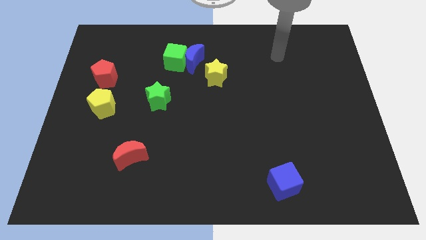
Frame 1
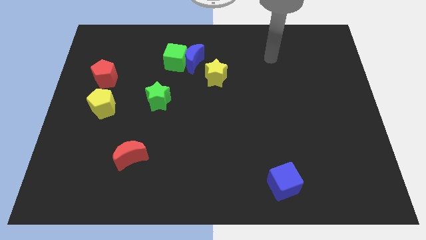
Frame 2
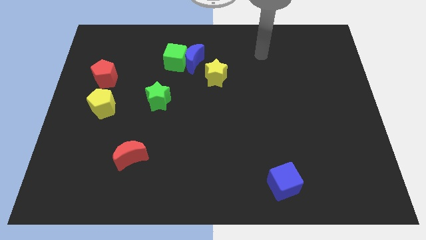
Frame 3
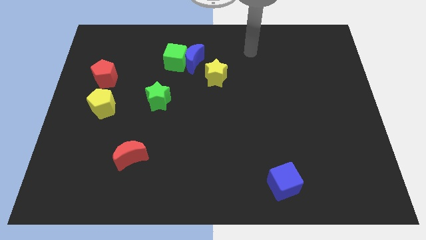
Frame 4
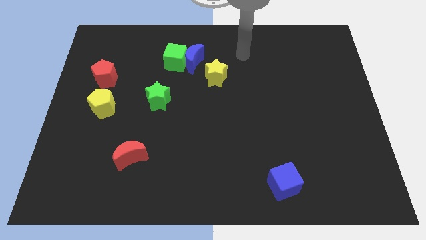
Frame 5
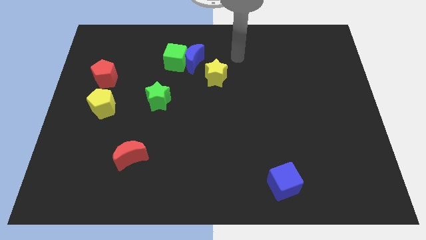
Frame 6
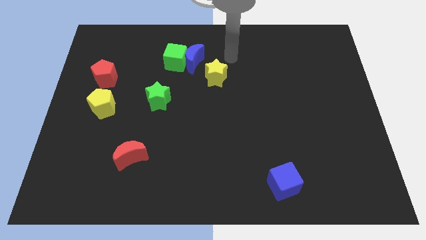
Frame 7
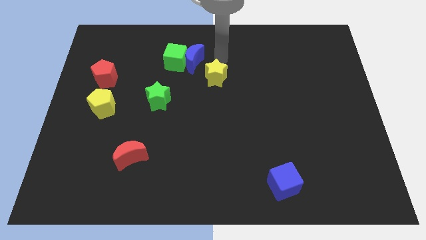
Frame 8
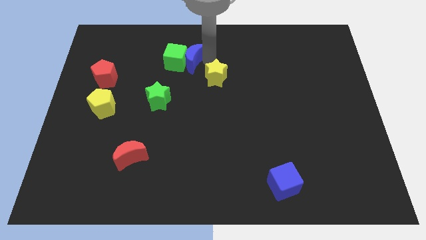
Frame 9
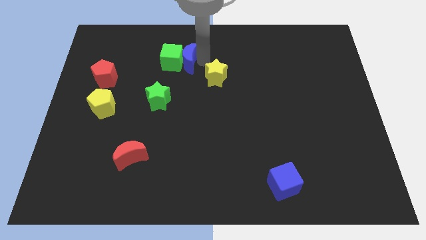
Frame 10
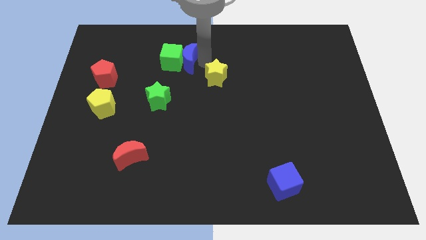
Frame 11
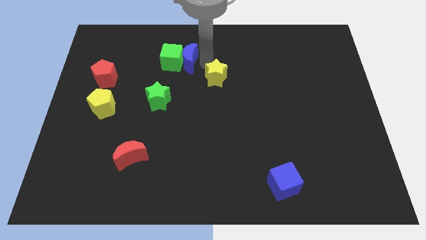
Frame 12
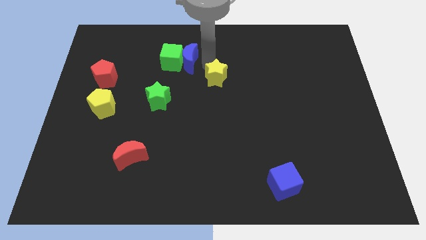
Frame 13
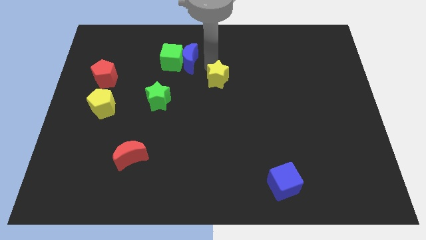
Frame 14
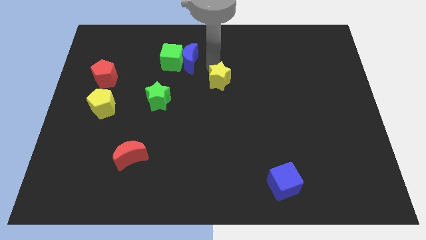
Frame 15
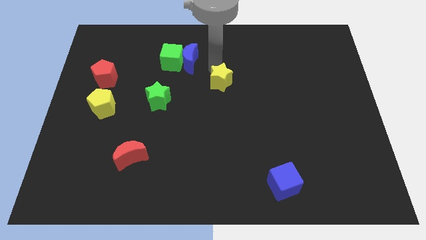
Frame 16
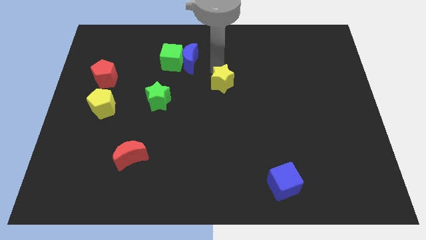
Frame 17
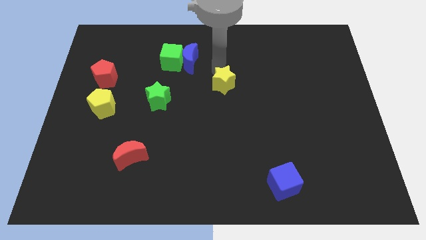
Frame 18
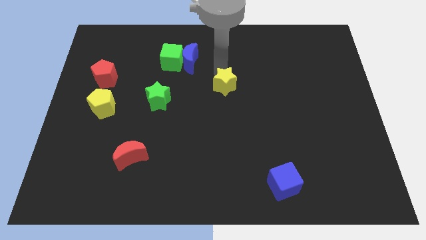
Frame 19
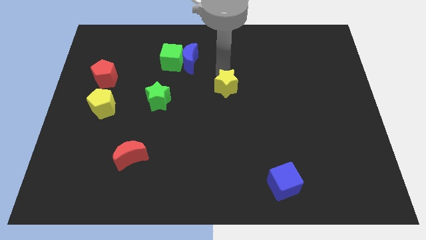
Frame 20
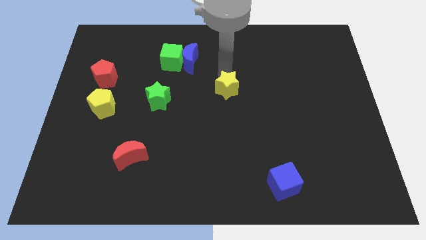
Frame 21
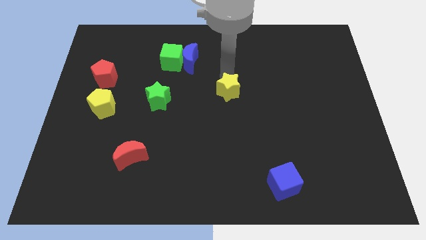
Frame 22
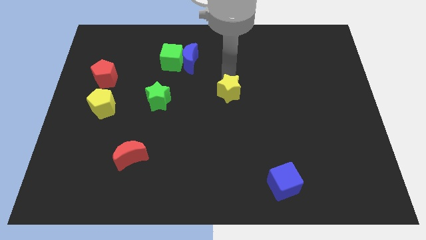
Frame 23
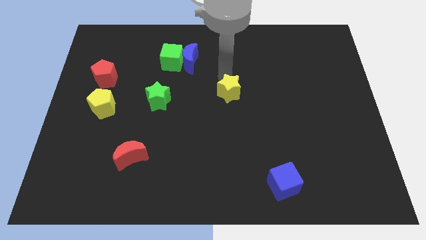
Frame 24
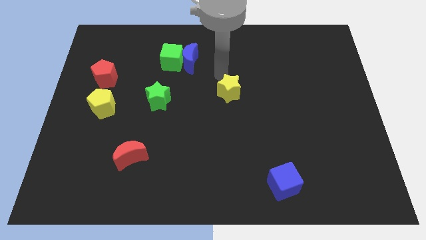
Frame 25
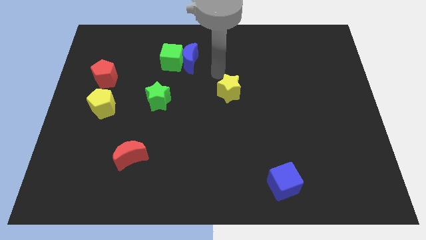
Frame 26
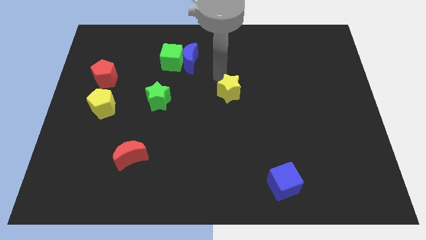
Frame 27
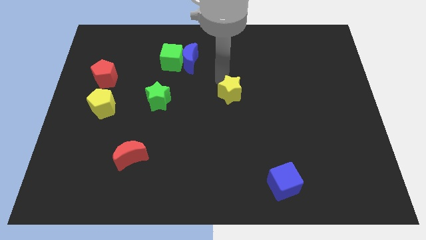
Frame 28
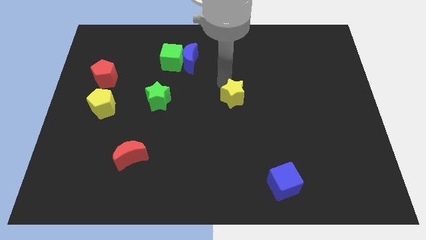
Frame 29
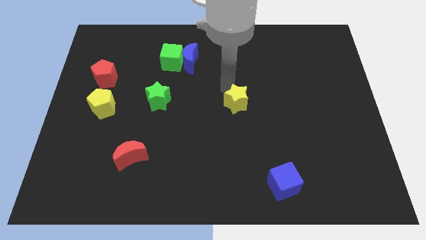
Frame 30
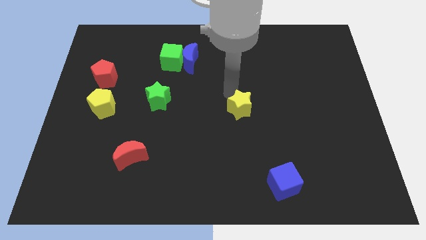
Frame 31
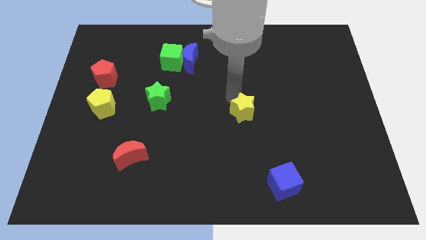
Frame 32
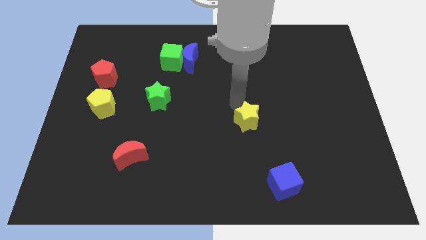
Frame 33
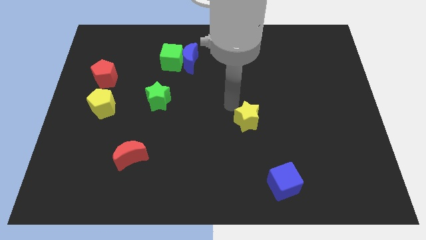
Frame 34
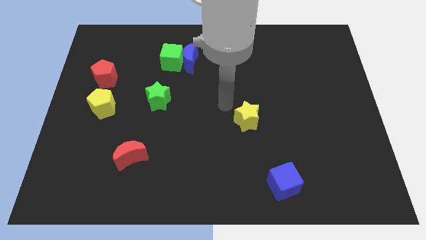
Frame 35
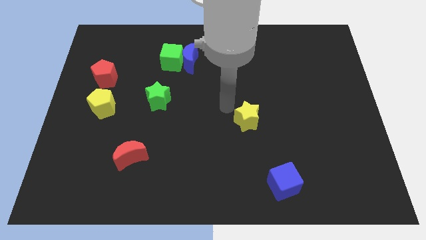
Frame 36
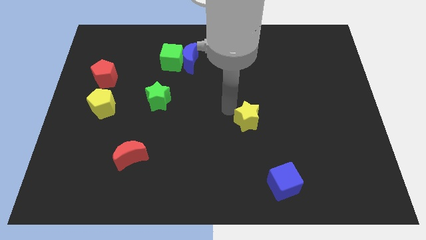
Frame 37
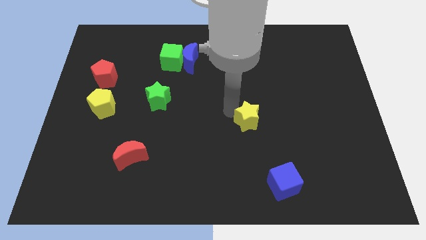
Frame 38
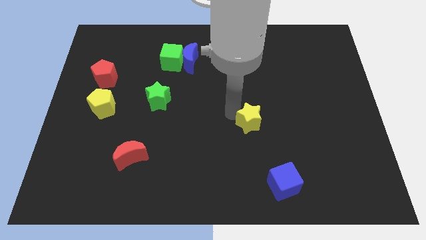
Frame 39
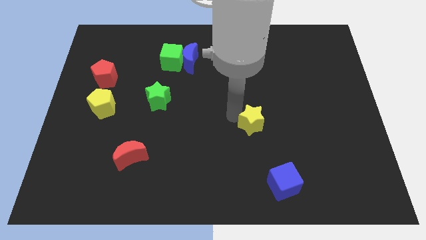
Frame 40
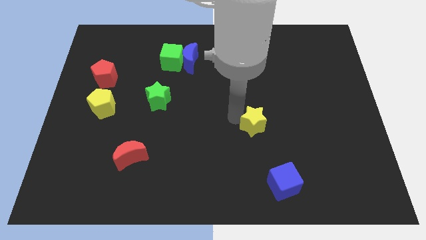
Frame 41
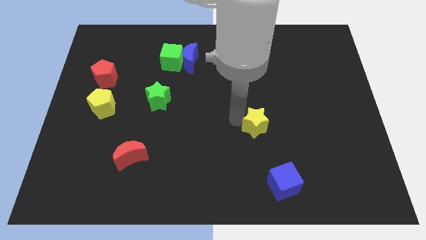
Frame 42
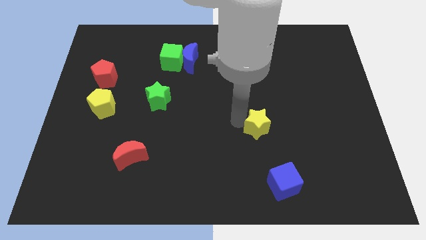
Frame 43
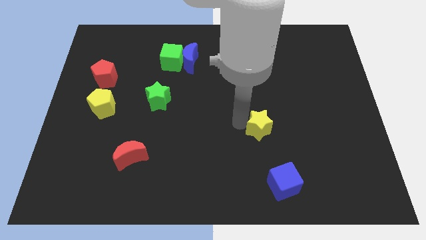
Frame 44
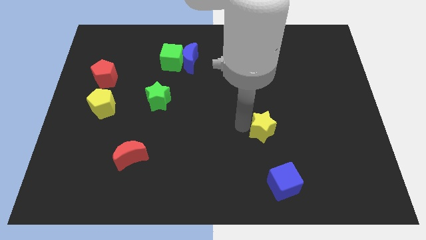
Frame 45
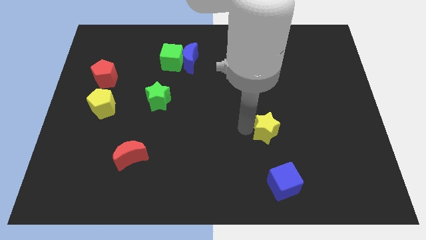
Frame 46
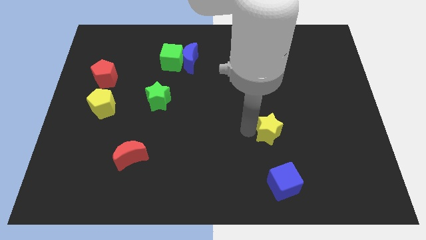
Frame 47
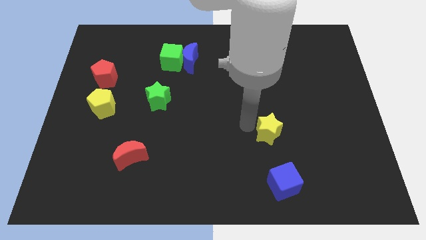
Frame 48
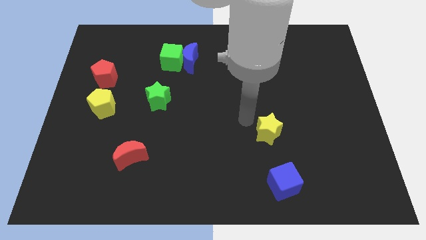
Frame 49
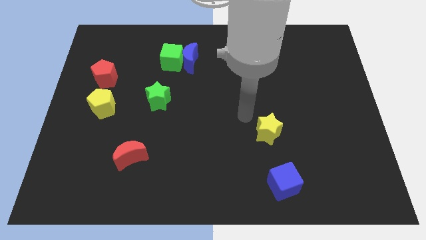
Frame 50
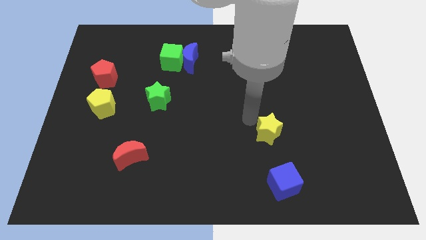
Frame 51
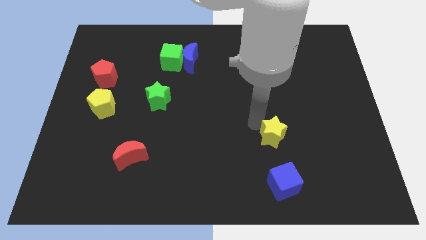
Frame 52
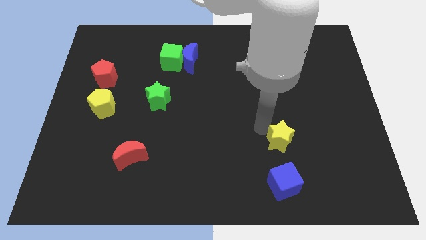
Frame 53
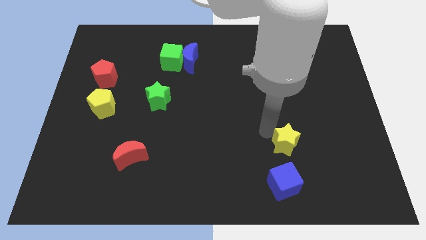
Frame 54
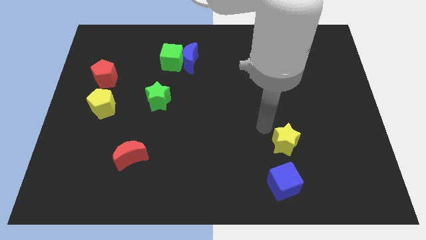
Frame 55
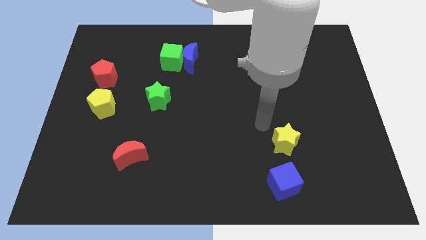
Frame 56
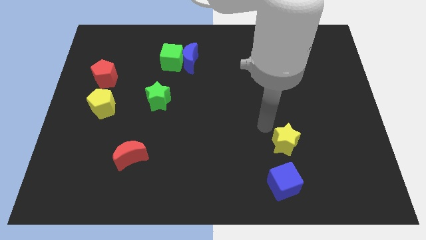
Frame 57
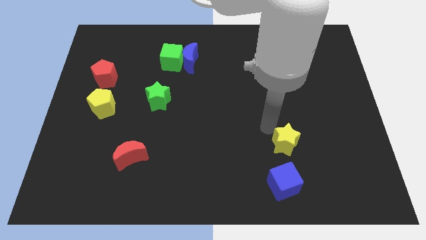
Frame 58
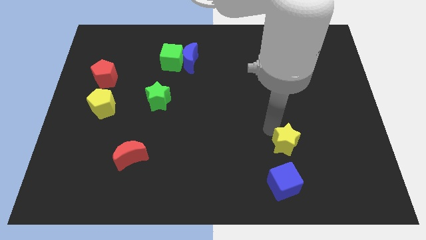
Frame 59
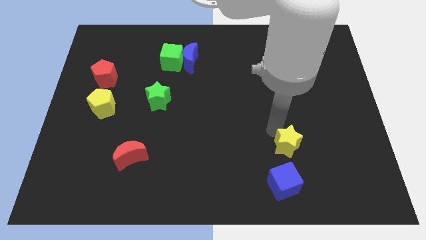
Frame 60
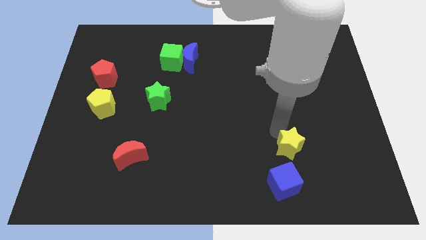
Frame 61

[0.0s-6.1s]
move the yellow star diagonally up and to the right of the blue cube

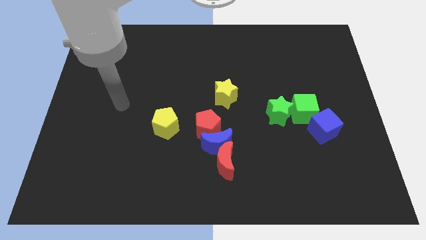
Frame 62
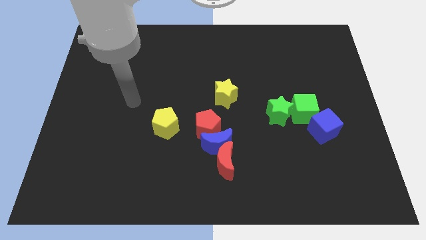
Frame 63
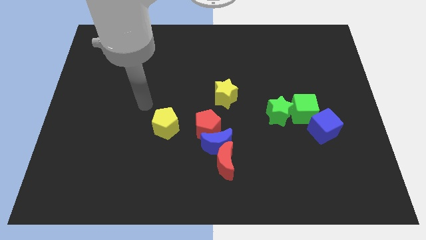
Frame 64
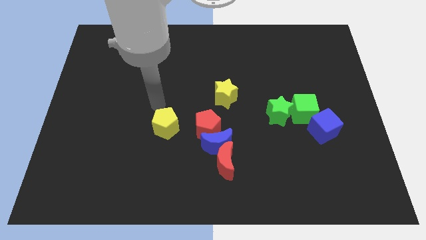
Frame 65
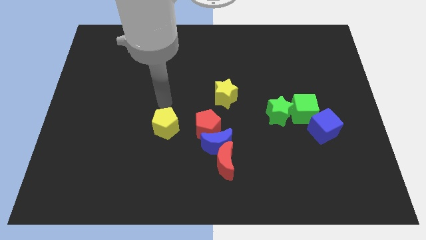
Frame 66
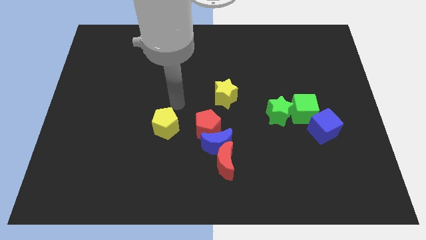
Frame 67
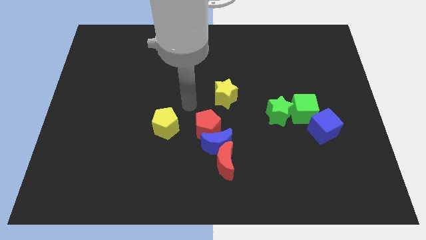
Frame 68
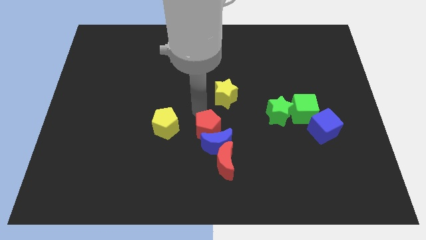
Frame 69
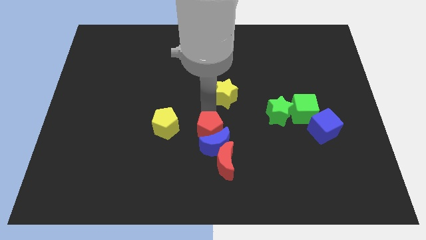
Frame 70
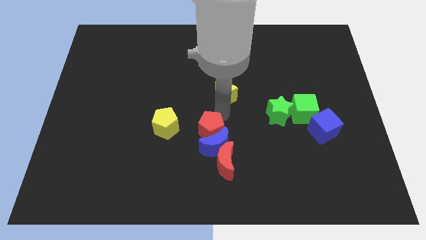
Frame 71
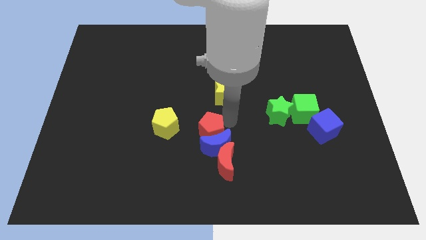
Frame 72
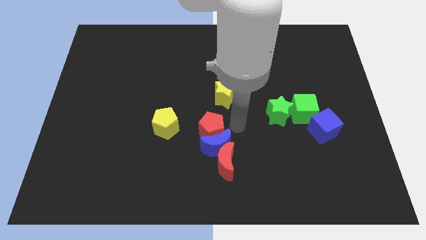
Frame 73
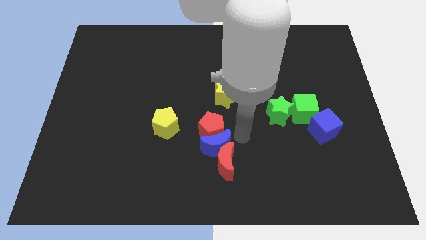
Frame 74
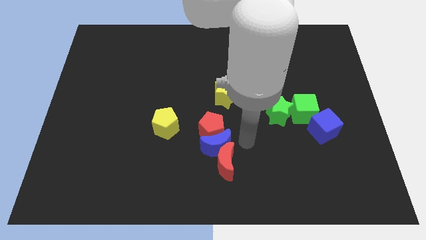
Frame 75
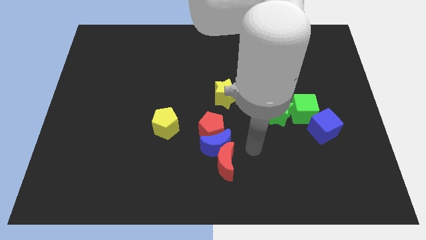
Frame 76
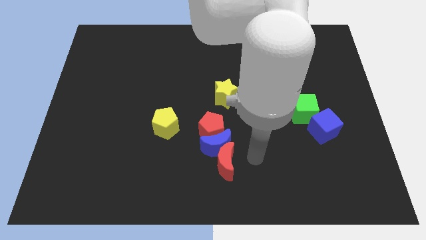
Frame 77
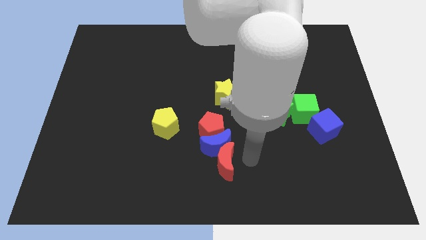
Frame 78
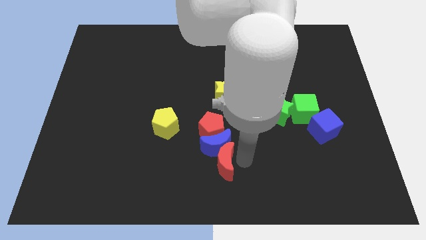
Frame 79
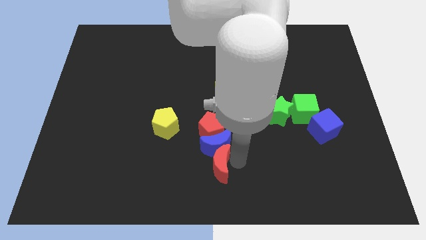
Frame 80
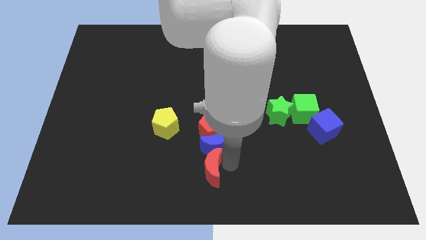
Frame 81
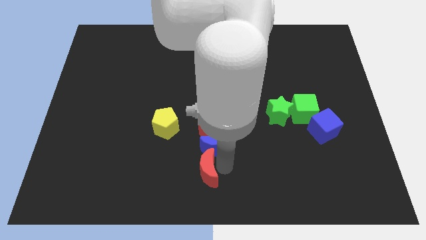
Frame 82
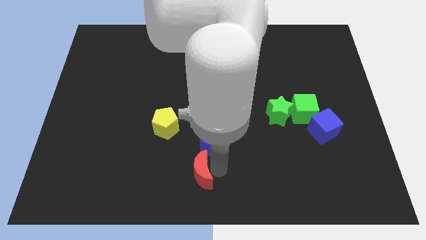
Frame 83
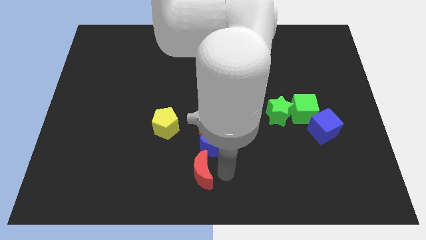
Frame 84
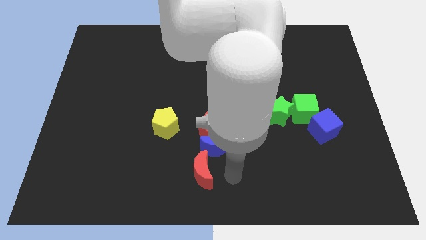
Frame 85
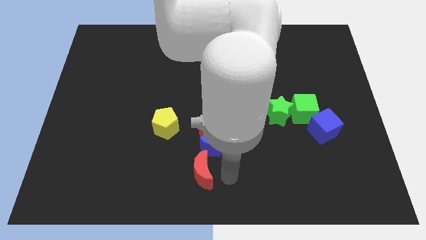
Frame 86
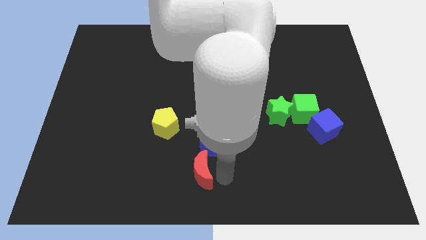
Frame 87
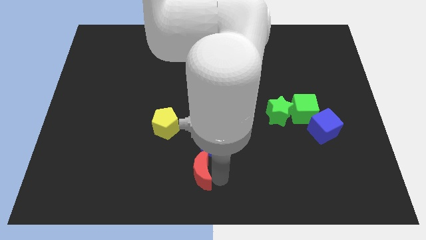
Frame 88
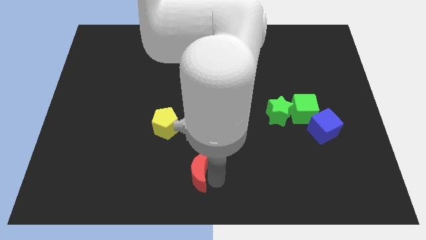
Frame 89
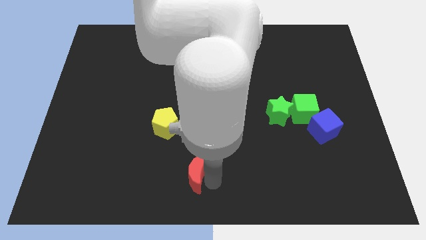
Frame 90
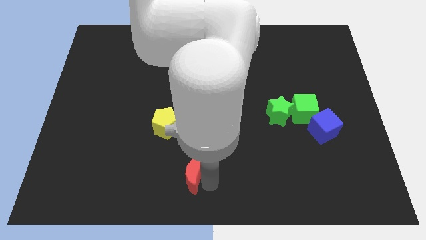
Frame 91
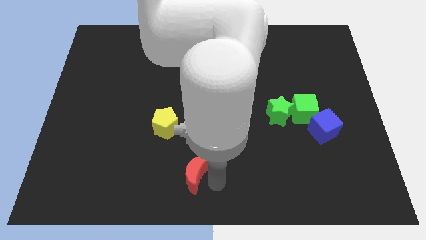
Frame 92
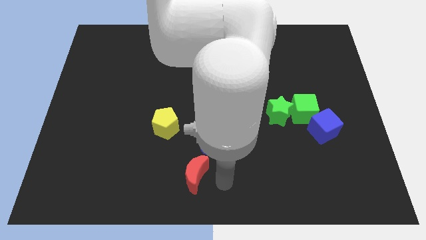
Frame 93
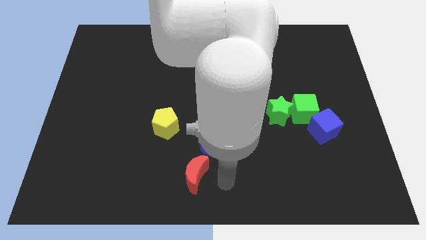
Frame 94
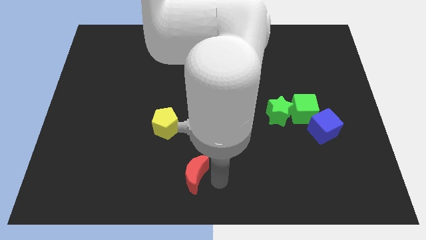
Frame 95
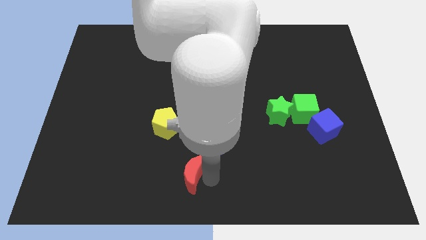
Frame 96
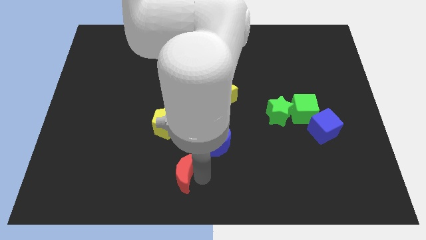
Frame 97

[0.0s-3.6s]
slide the red moon to the bottom of the yellow pentagon
